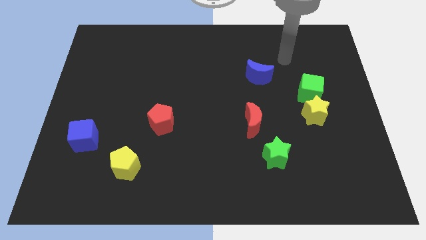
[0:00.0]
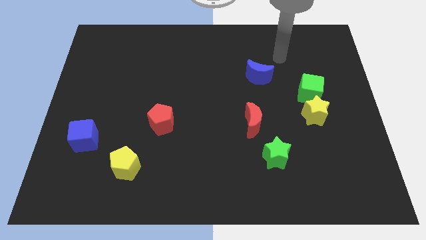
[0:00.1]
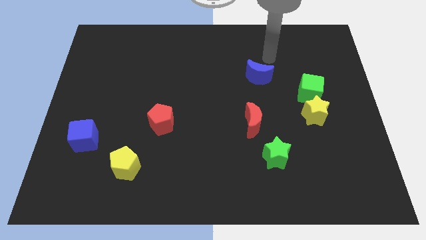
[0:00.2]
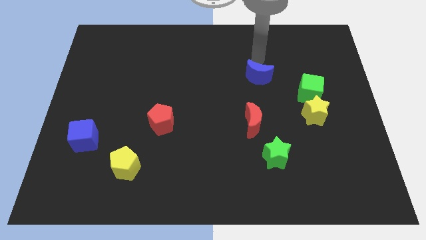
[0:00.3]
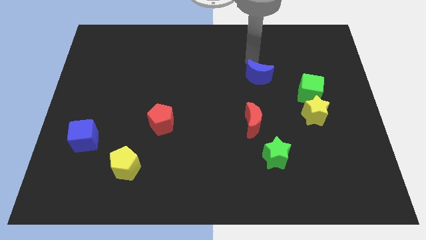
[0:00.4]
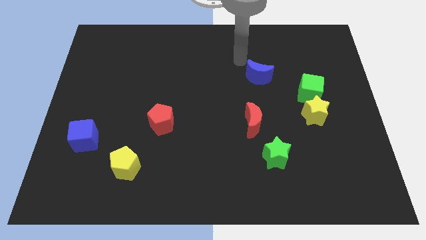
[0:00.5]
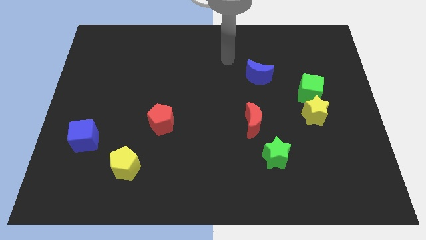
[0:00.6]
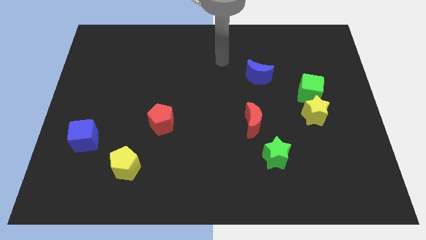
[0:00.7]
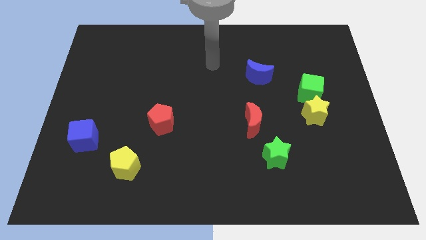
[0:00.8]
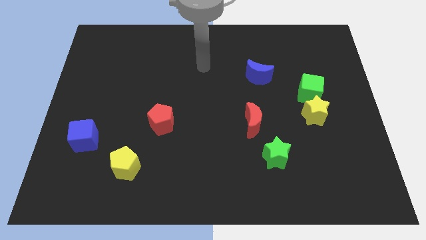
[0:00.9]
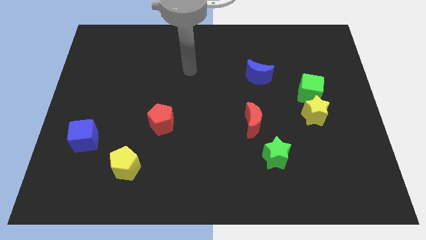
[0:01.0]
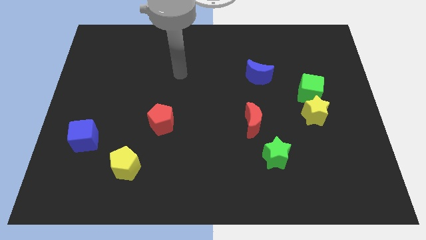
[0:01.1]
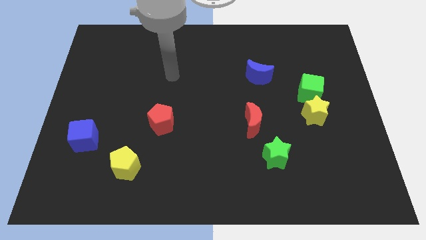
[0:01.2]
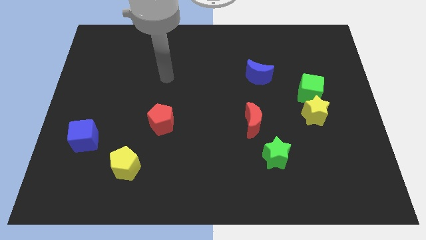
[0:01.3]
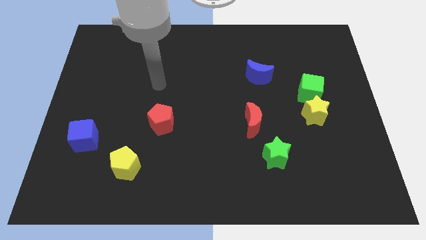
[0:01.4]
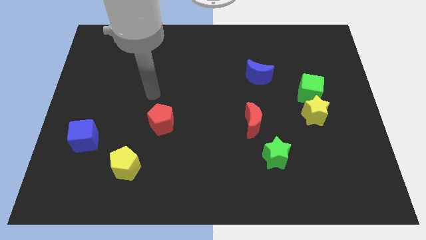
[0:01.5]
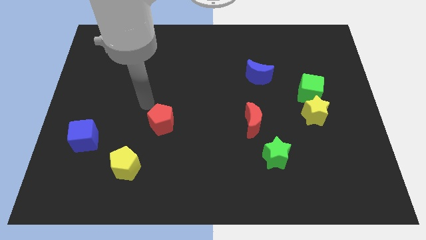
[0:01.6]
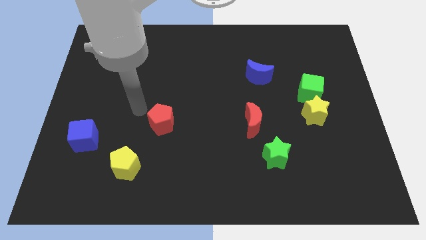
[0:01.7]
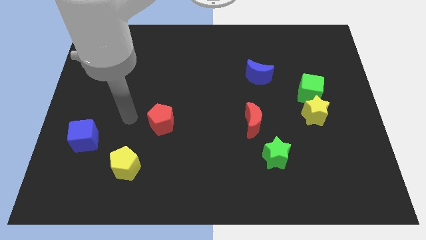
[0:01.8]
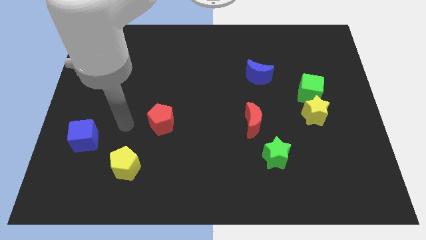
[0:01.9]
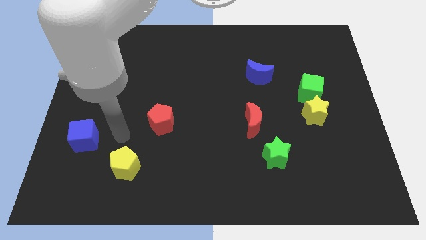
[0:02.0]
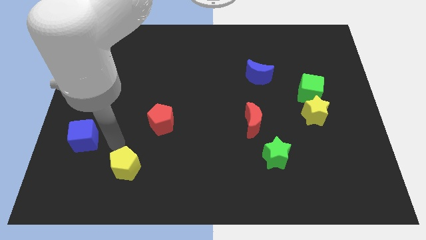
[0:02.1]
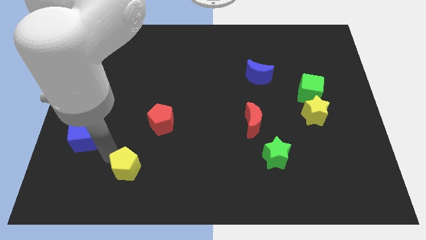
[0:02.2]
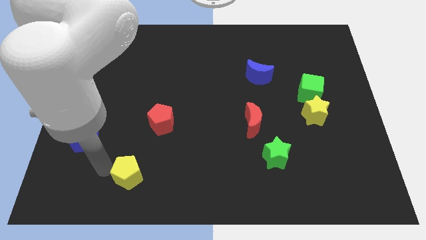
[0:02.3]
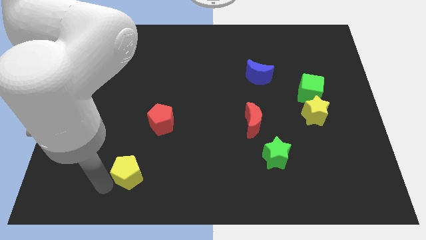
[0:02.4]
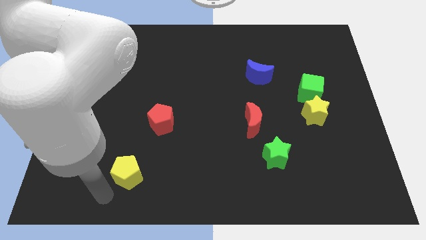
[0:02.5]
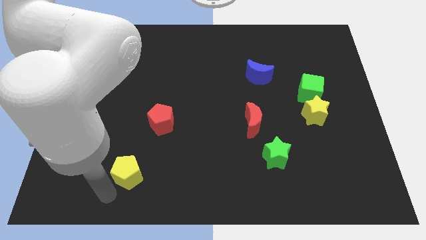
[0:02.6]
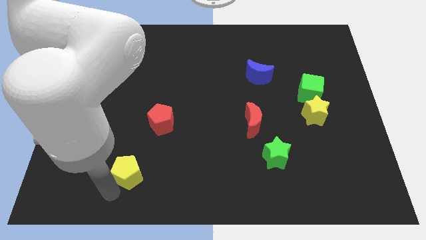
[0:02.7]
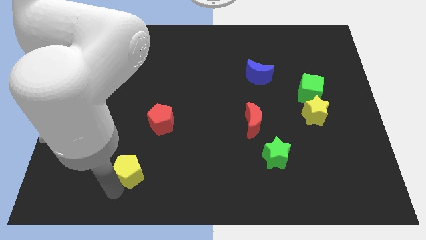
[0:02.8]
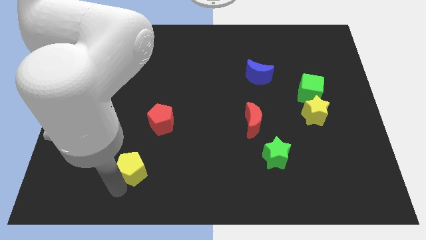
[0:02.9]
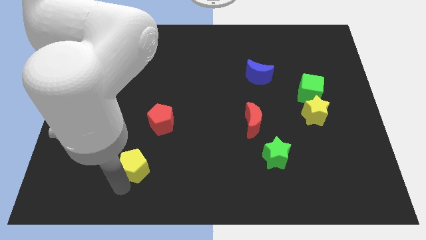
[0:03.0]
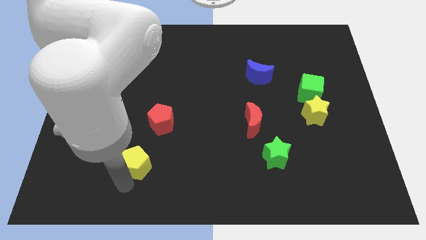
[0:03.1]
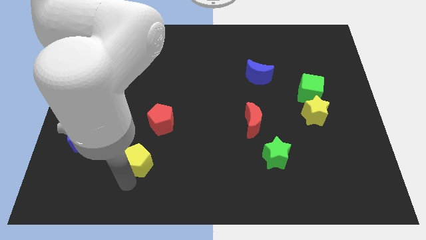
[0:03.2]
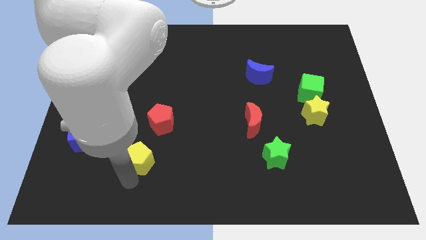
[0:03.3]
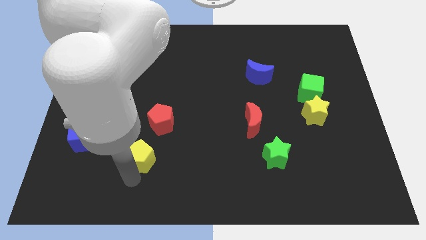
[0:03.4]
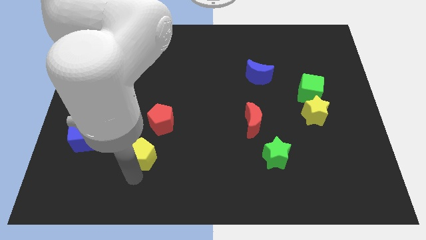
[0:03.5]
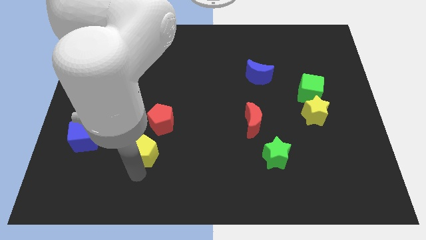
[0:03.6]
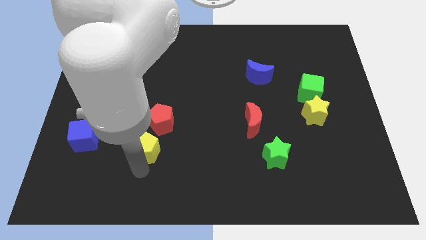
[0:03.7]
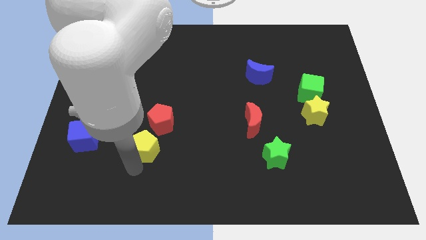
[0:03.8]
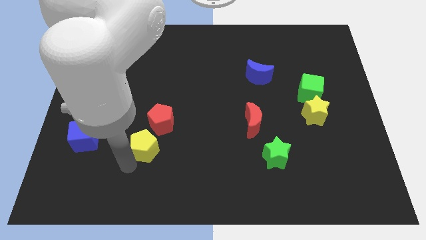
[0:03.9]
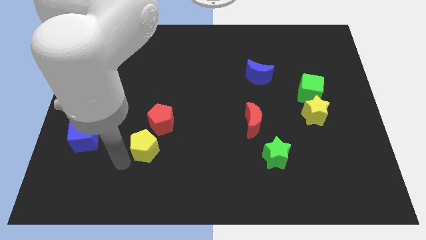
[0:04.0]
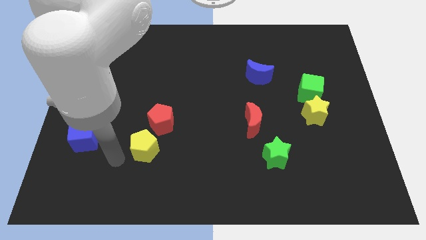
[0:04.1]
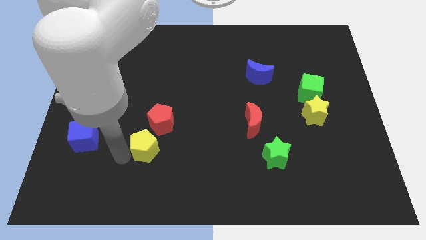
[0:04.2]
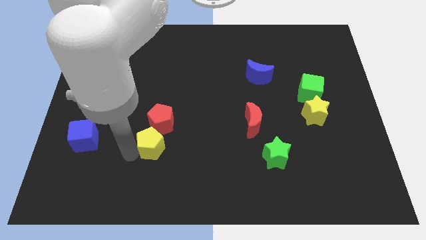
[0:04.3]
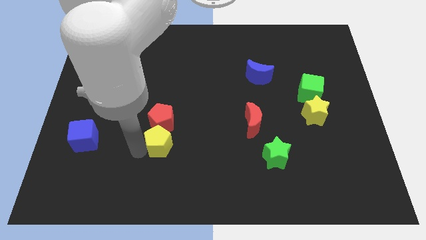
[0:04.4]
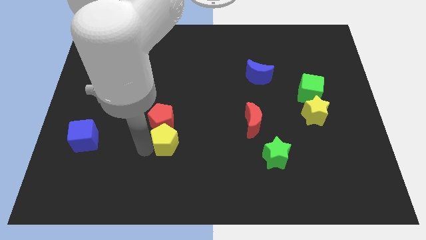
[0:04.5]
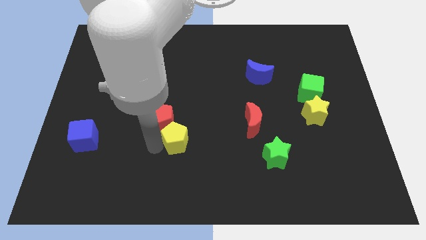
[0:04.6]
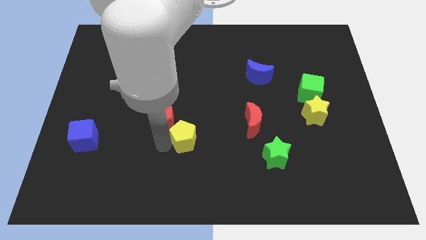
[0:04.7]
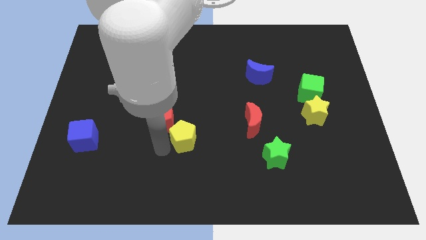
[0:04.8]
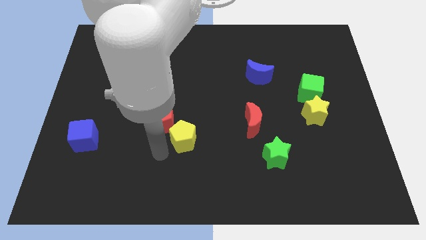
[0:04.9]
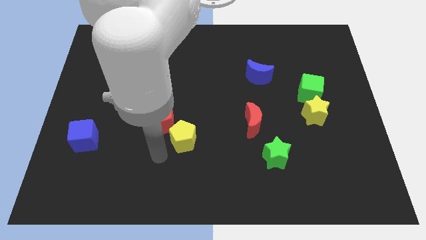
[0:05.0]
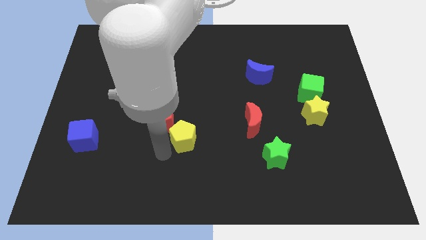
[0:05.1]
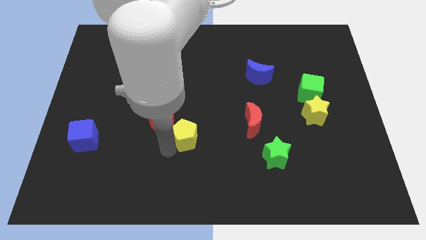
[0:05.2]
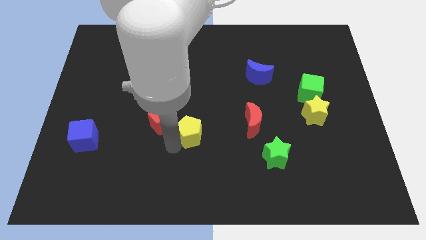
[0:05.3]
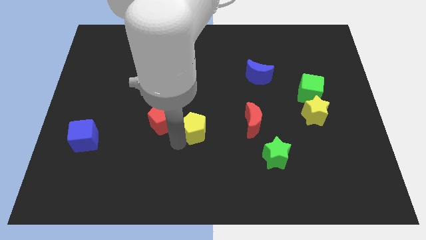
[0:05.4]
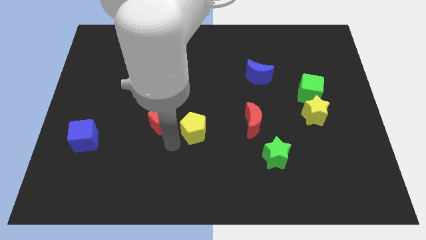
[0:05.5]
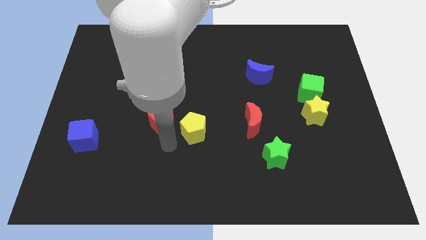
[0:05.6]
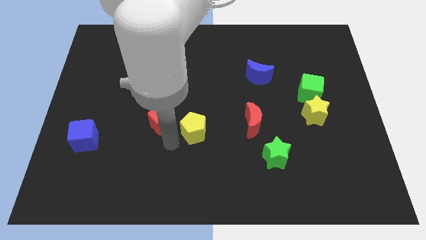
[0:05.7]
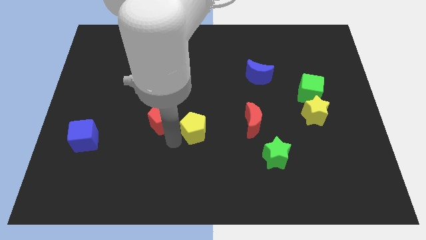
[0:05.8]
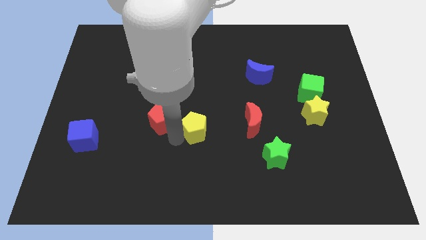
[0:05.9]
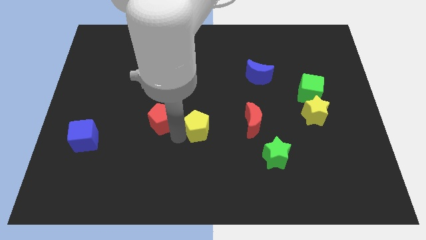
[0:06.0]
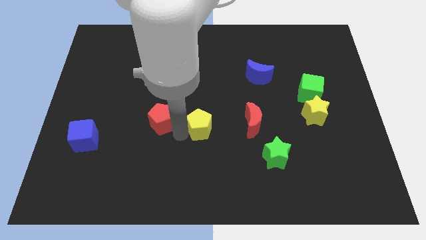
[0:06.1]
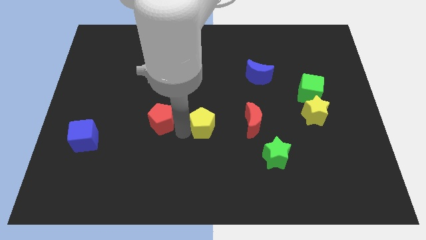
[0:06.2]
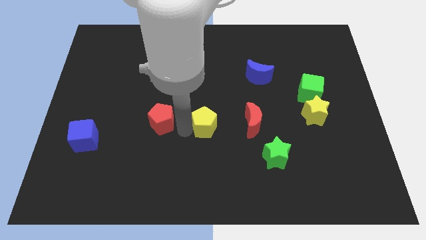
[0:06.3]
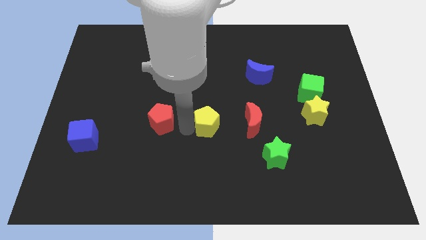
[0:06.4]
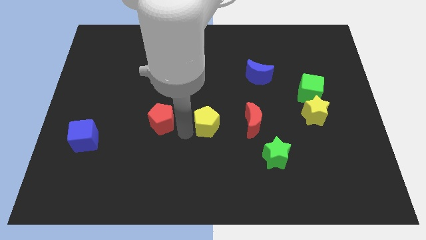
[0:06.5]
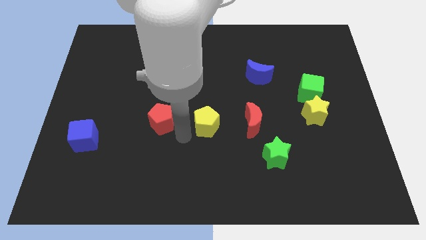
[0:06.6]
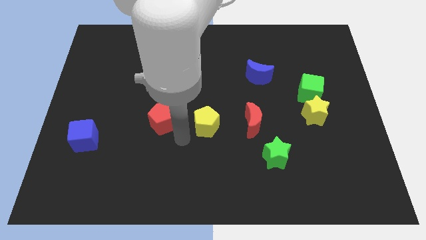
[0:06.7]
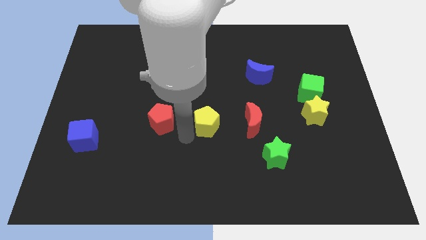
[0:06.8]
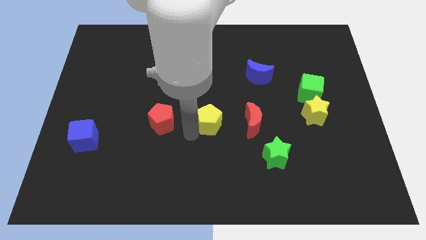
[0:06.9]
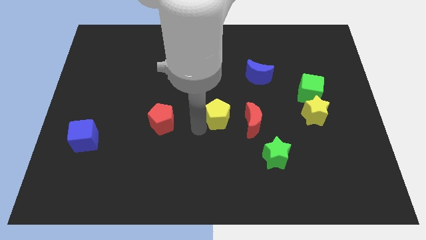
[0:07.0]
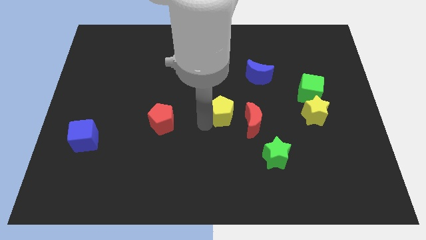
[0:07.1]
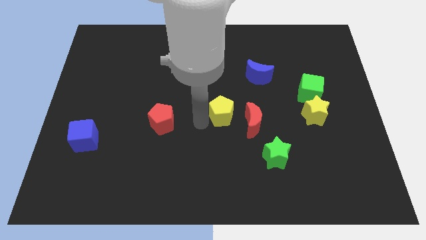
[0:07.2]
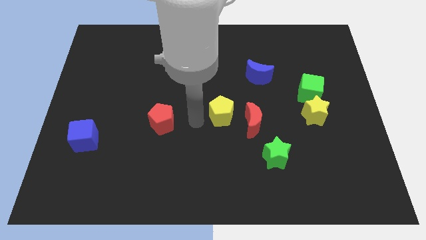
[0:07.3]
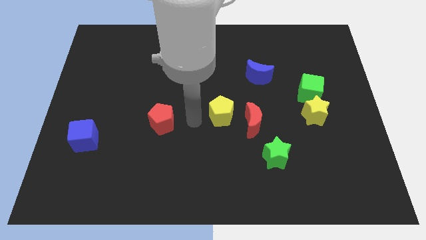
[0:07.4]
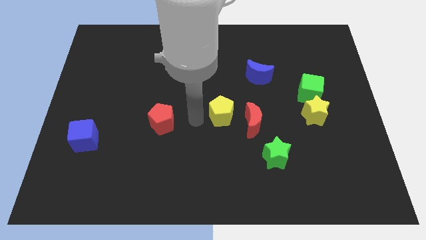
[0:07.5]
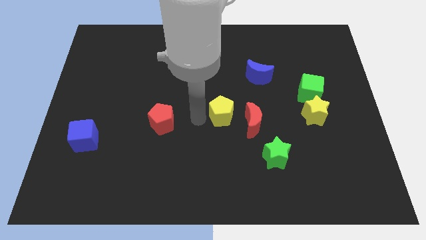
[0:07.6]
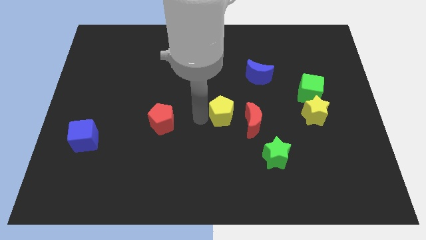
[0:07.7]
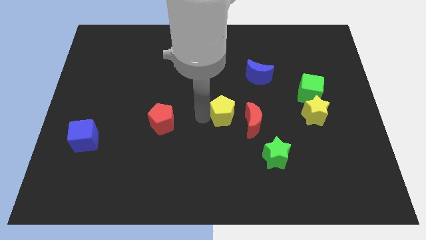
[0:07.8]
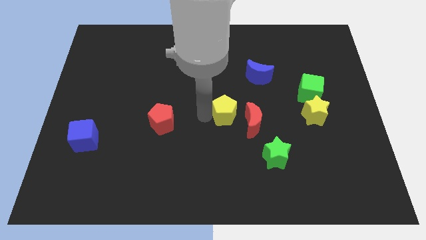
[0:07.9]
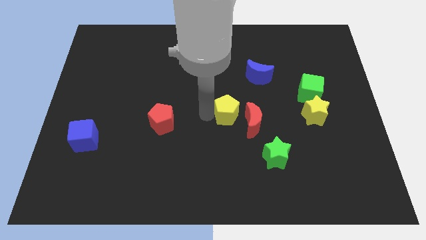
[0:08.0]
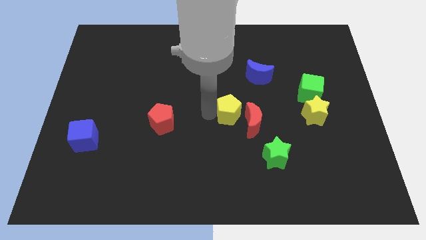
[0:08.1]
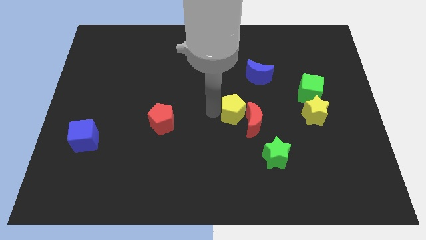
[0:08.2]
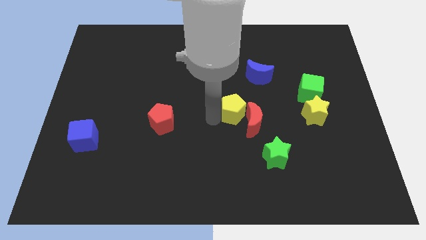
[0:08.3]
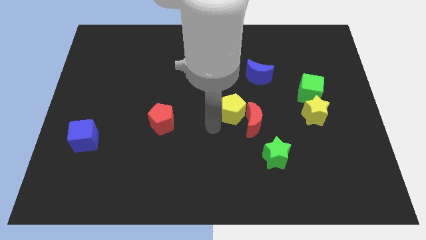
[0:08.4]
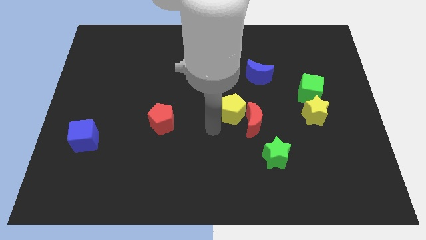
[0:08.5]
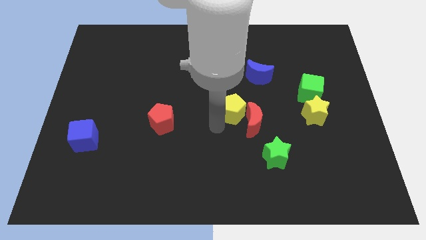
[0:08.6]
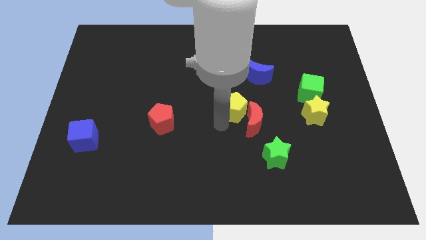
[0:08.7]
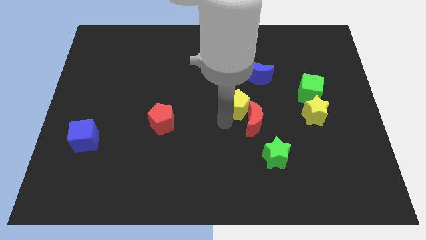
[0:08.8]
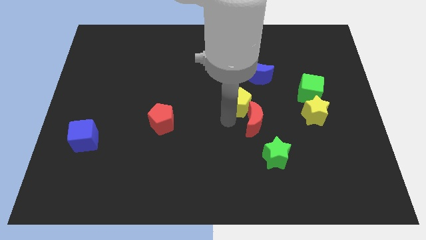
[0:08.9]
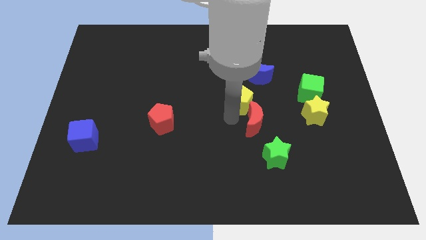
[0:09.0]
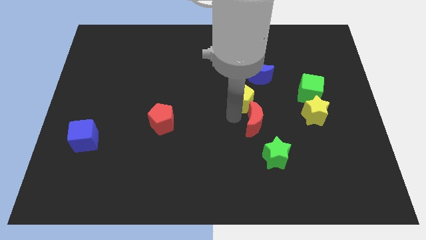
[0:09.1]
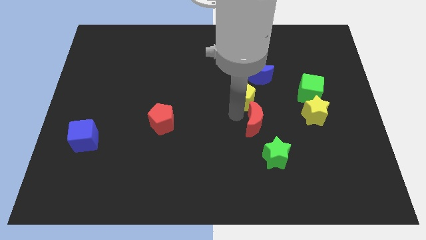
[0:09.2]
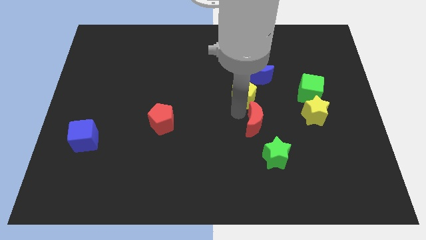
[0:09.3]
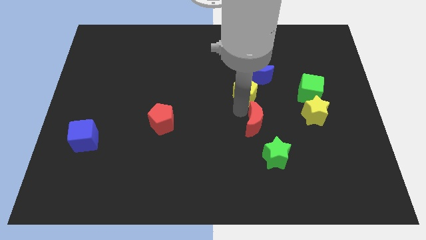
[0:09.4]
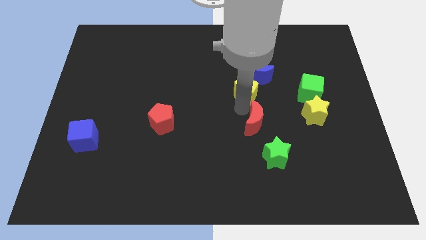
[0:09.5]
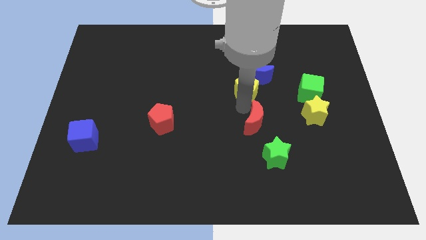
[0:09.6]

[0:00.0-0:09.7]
move the yellow pentagon close to the blue moon
